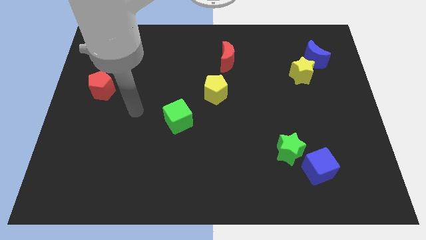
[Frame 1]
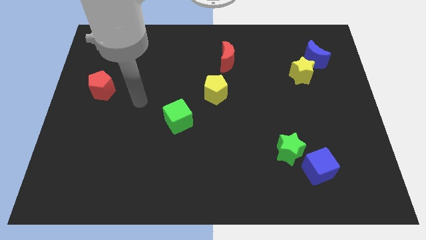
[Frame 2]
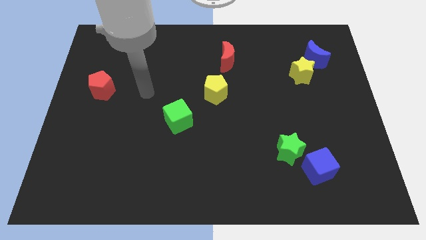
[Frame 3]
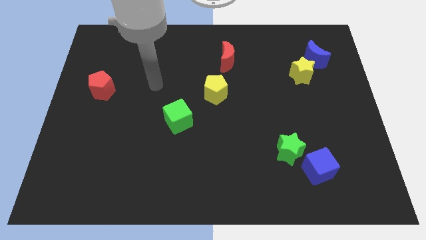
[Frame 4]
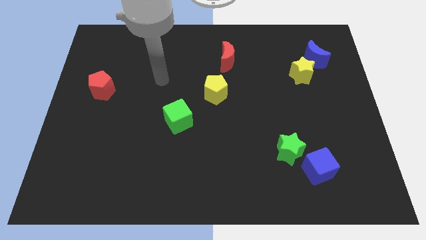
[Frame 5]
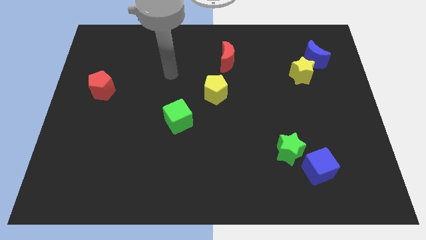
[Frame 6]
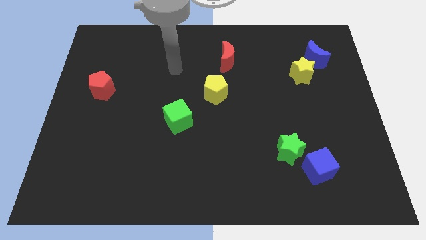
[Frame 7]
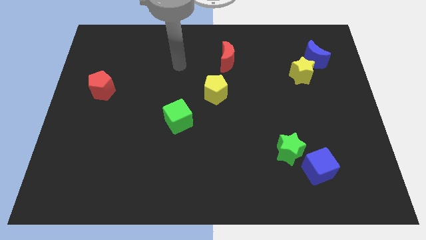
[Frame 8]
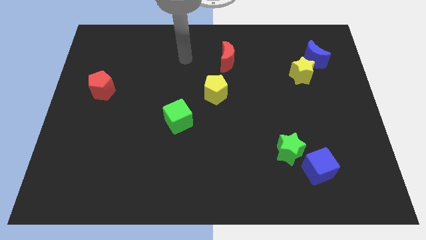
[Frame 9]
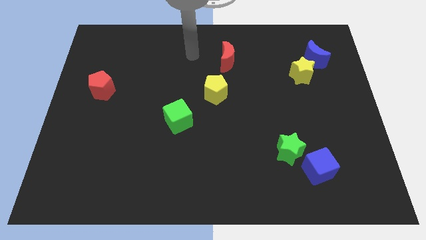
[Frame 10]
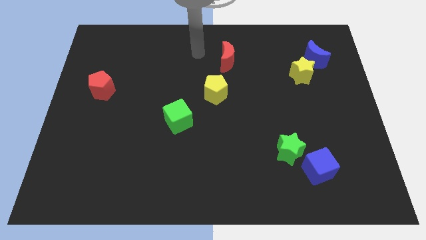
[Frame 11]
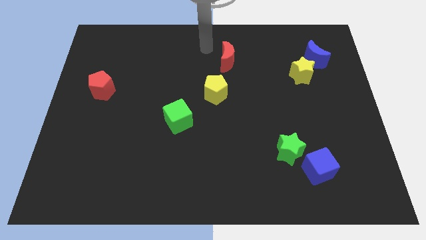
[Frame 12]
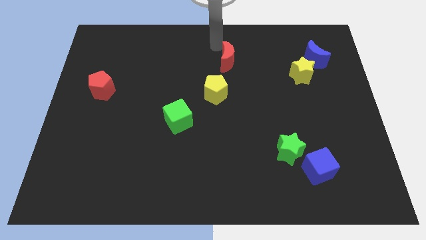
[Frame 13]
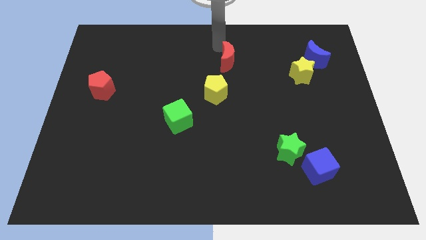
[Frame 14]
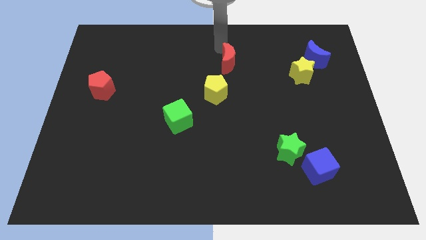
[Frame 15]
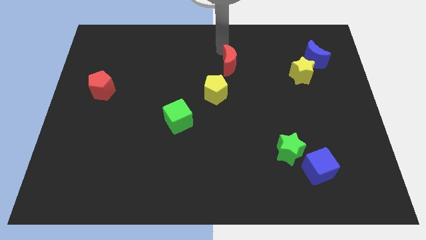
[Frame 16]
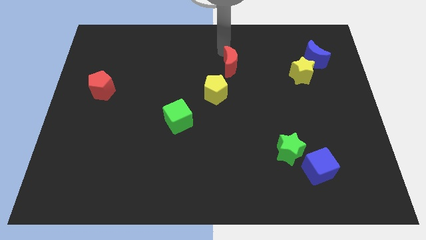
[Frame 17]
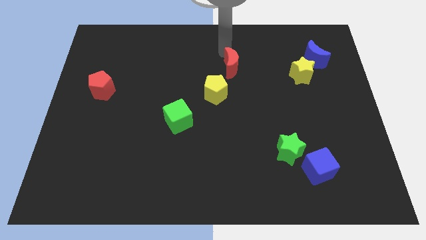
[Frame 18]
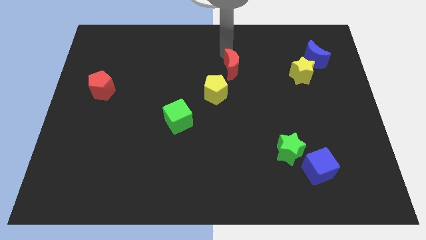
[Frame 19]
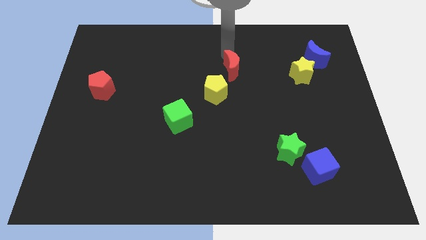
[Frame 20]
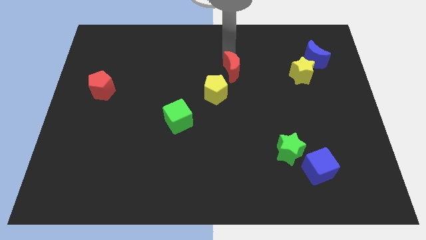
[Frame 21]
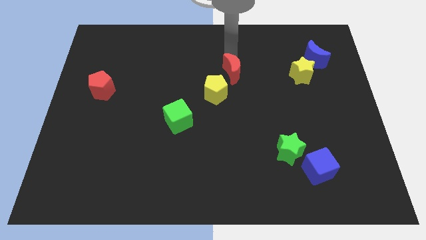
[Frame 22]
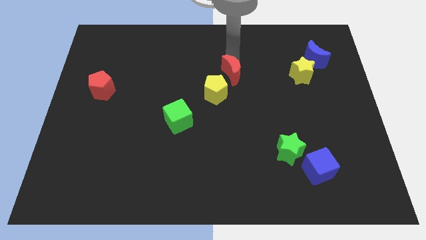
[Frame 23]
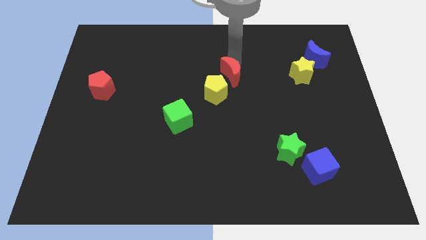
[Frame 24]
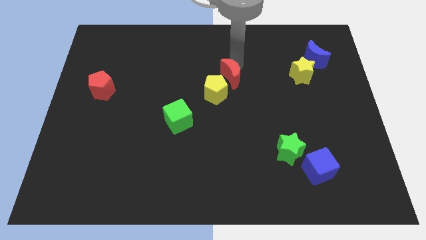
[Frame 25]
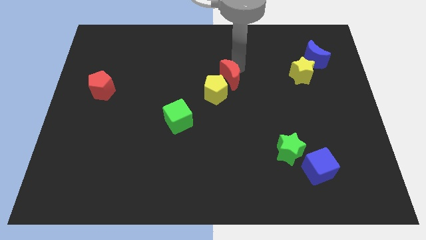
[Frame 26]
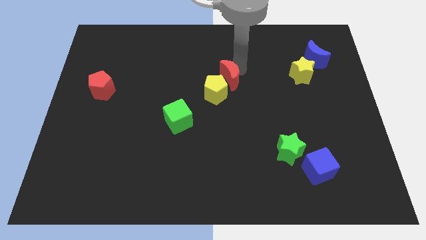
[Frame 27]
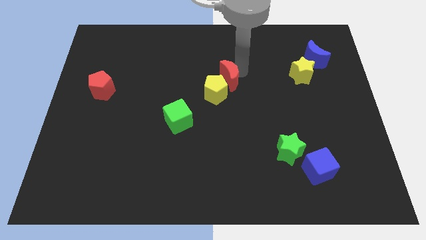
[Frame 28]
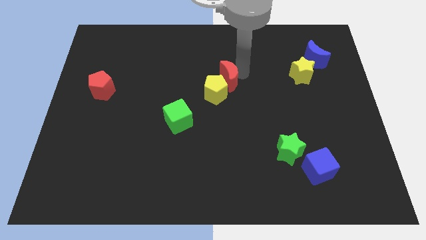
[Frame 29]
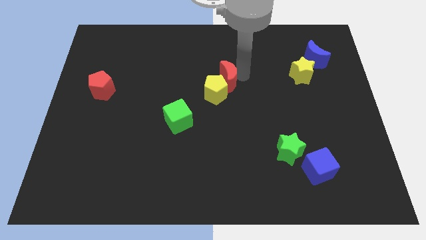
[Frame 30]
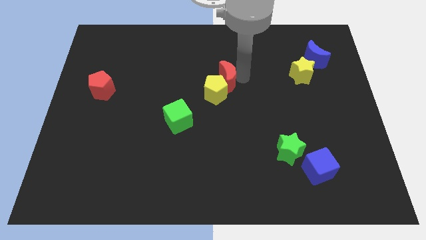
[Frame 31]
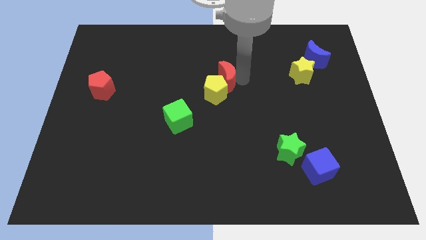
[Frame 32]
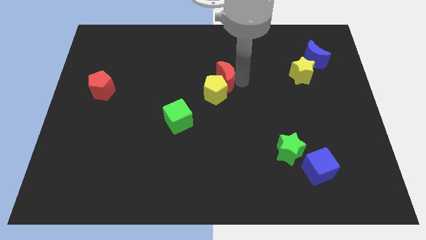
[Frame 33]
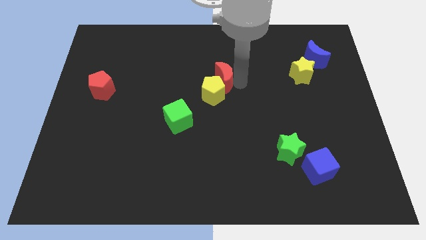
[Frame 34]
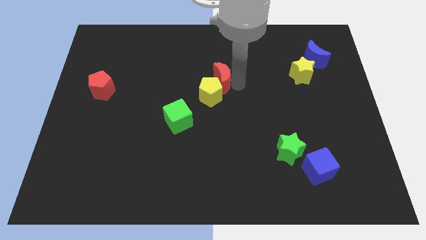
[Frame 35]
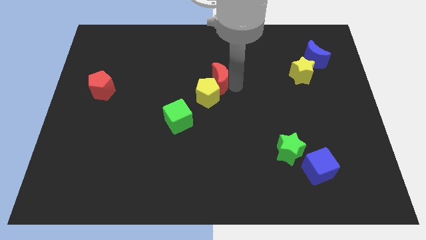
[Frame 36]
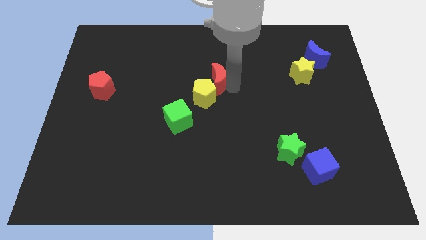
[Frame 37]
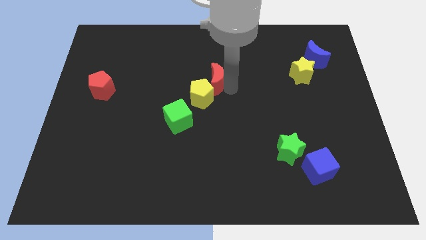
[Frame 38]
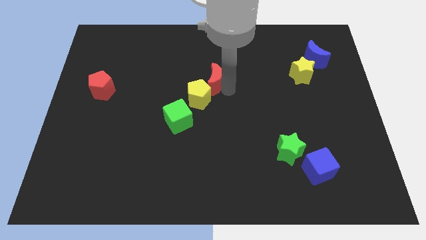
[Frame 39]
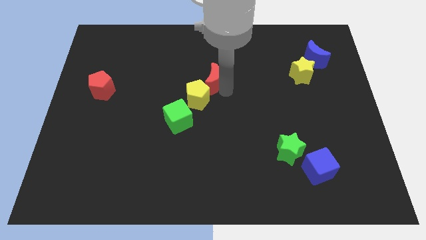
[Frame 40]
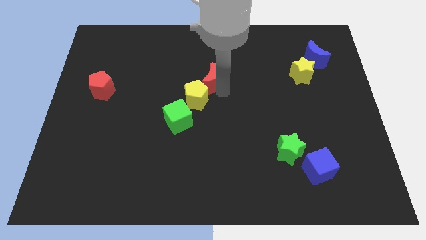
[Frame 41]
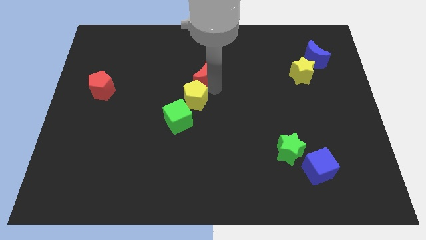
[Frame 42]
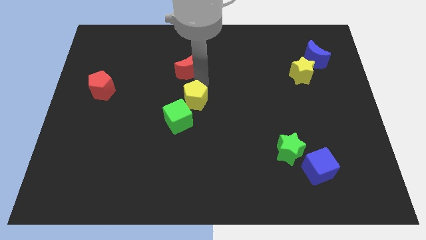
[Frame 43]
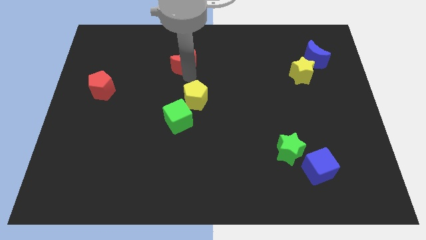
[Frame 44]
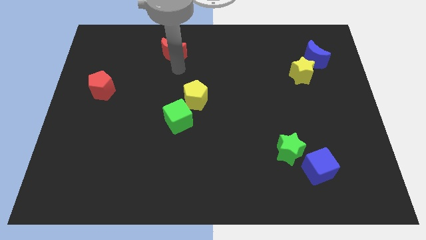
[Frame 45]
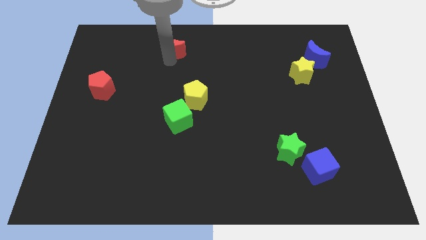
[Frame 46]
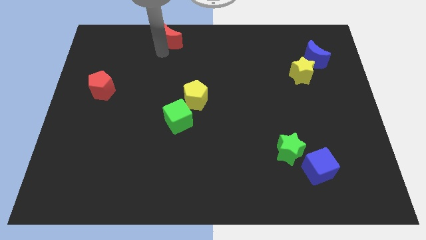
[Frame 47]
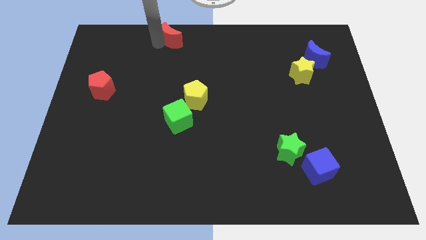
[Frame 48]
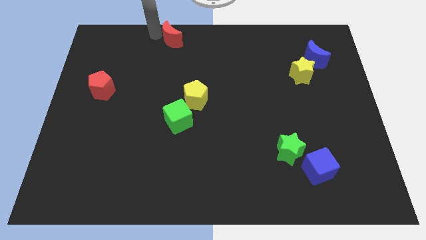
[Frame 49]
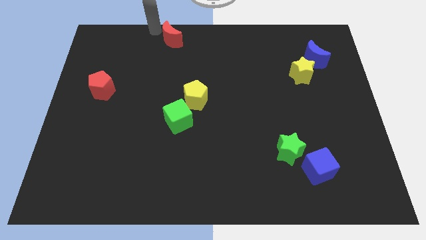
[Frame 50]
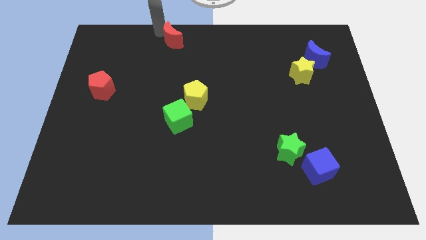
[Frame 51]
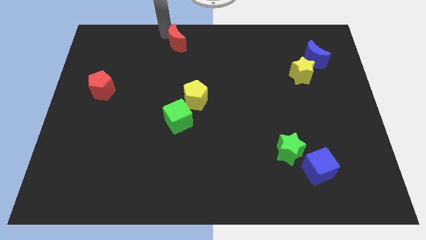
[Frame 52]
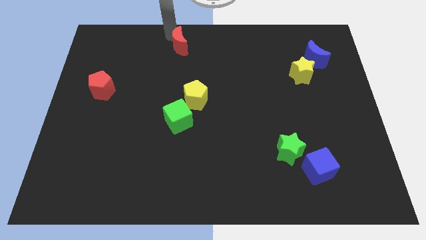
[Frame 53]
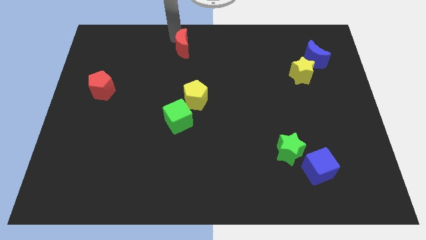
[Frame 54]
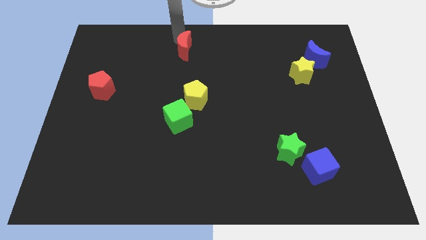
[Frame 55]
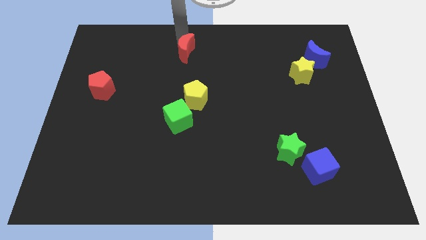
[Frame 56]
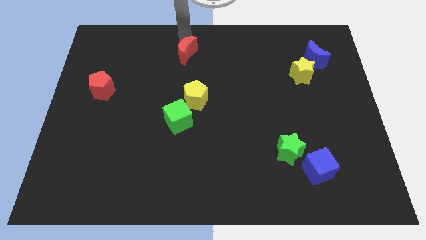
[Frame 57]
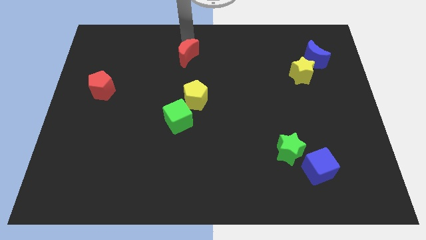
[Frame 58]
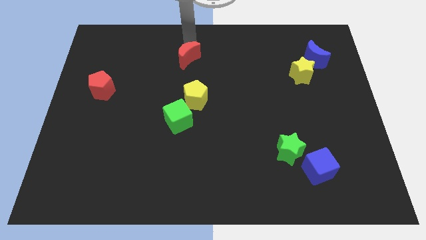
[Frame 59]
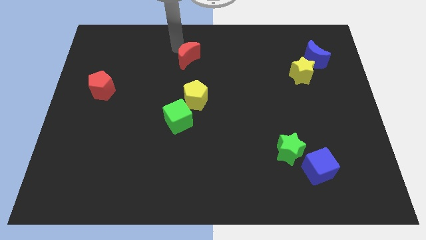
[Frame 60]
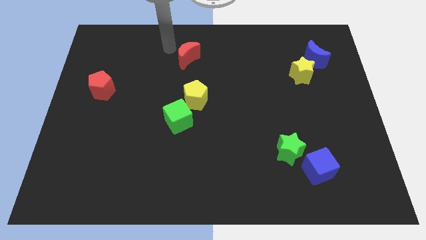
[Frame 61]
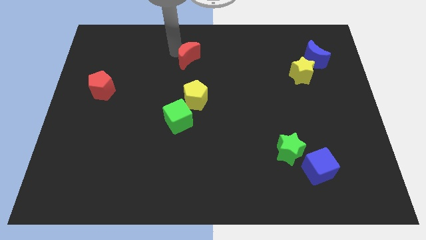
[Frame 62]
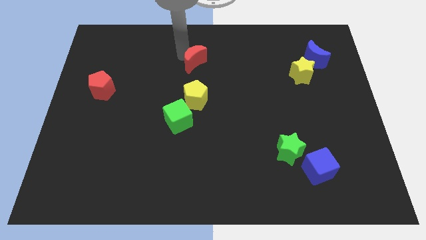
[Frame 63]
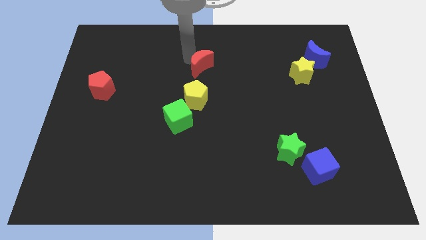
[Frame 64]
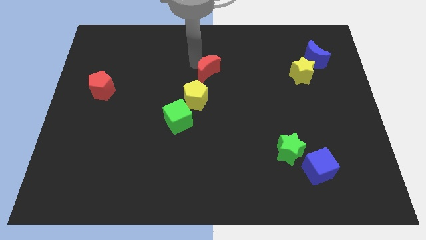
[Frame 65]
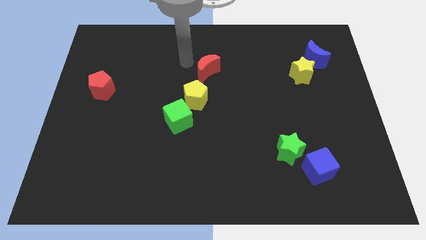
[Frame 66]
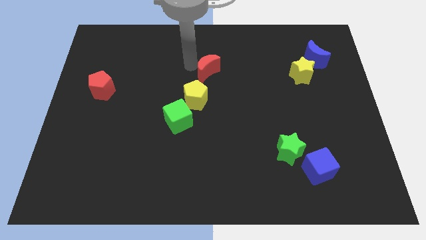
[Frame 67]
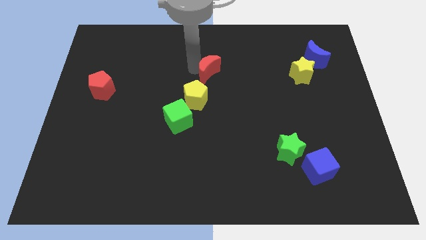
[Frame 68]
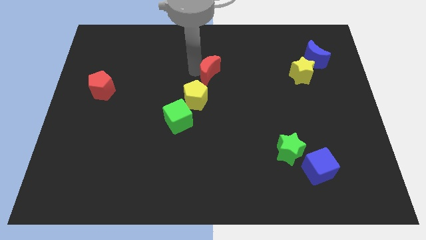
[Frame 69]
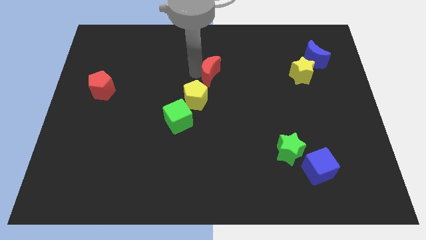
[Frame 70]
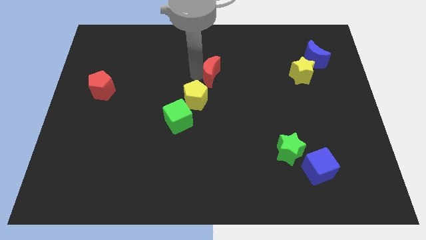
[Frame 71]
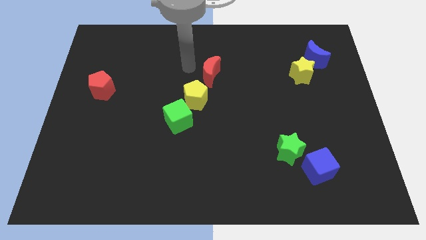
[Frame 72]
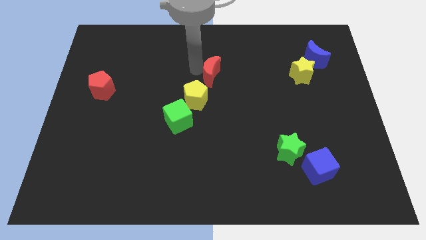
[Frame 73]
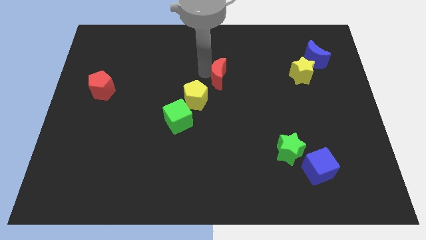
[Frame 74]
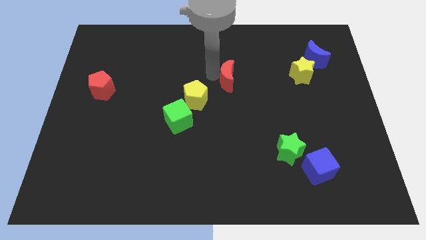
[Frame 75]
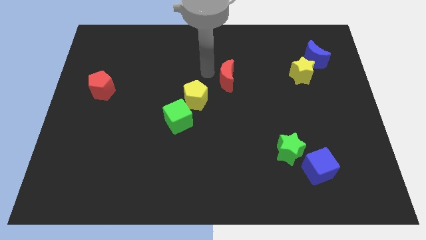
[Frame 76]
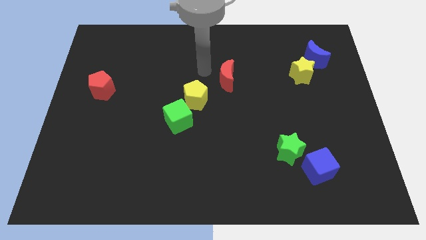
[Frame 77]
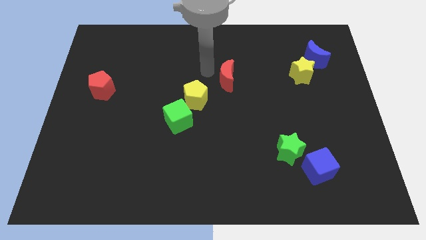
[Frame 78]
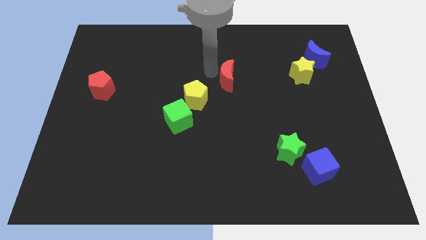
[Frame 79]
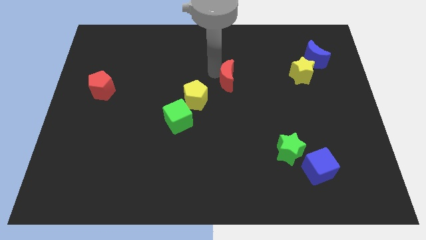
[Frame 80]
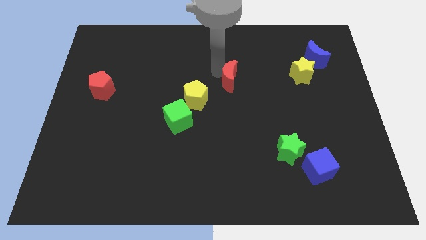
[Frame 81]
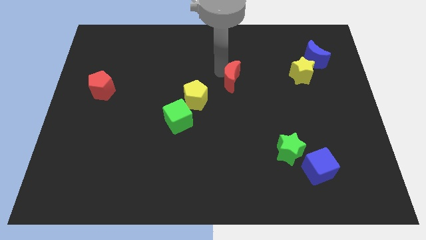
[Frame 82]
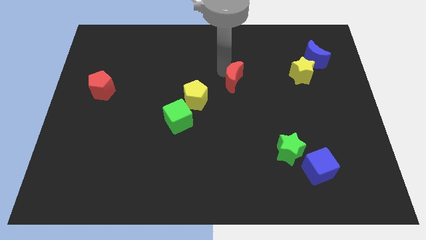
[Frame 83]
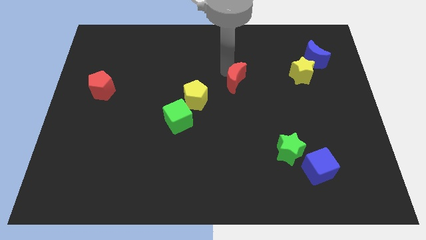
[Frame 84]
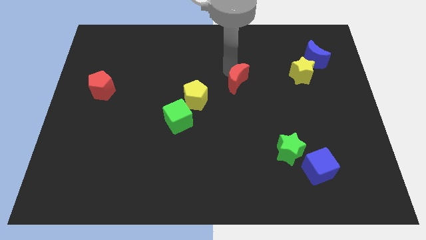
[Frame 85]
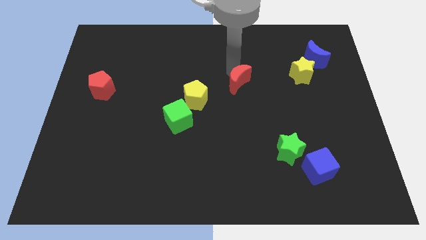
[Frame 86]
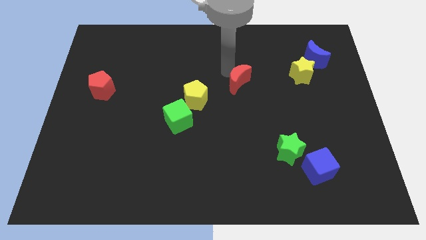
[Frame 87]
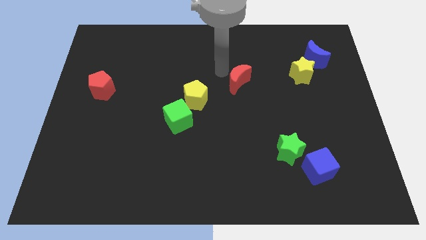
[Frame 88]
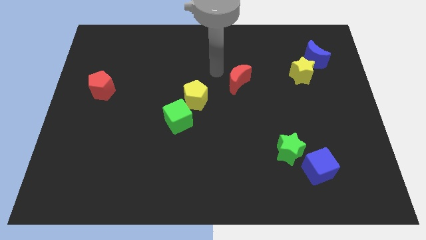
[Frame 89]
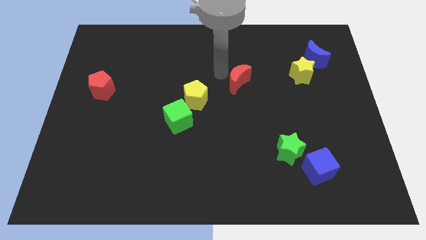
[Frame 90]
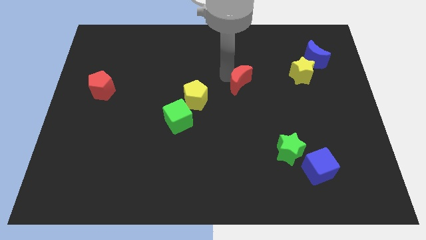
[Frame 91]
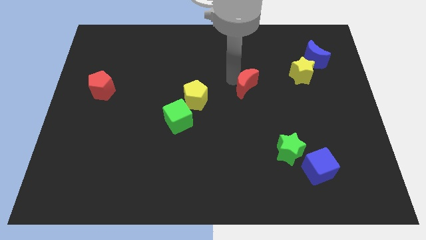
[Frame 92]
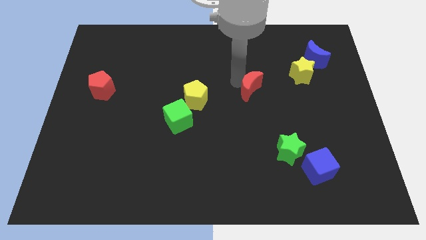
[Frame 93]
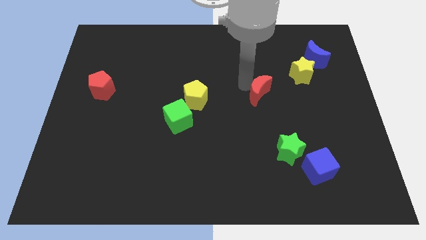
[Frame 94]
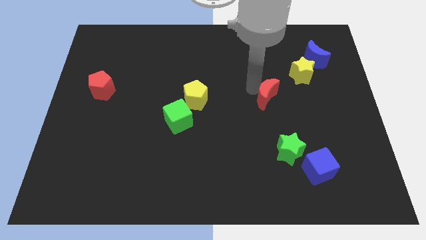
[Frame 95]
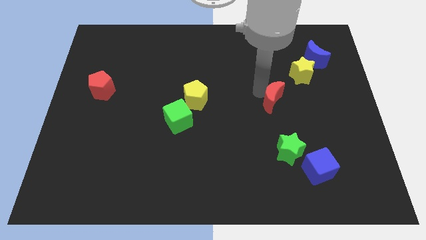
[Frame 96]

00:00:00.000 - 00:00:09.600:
push the red moon to the top of the green star
